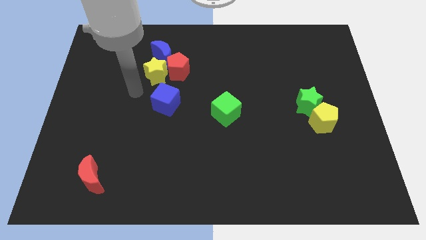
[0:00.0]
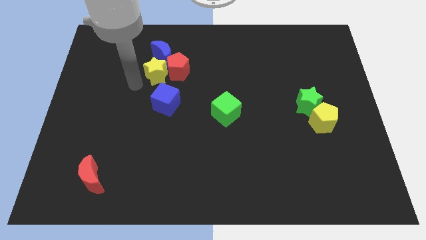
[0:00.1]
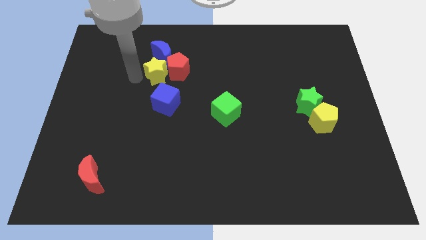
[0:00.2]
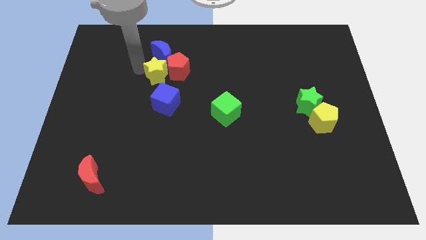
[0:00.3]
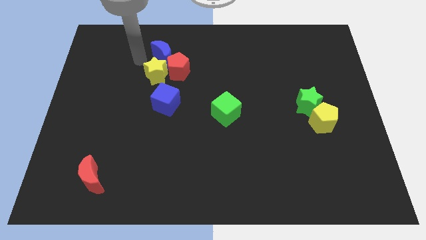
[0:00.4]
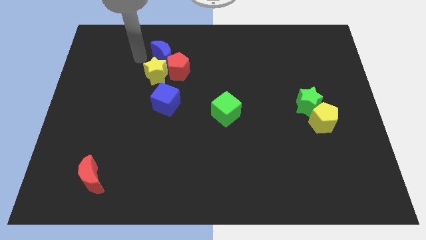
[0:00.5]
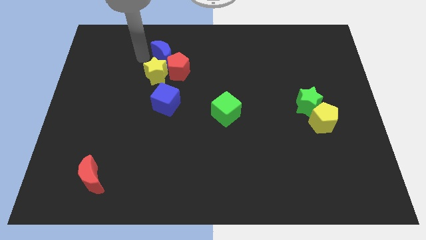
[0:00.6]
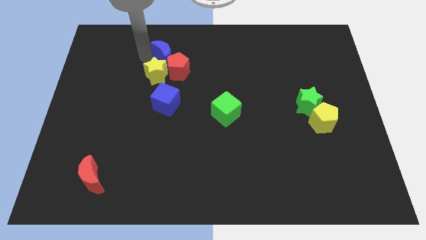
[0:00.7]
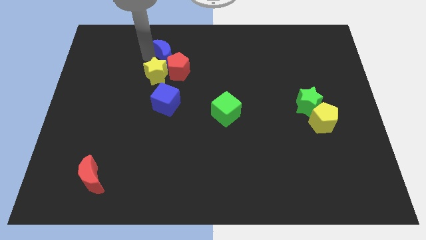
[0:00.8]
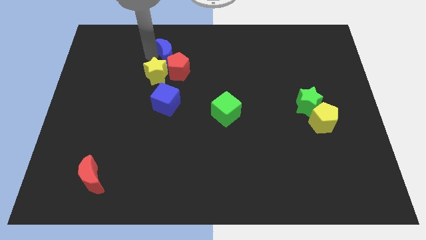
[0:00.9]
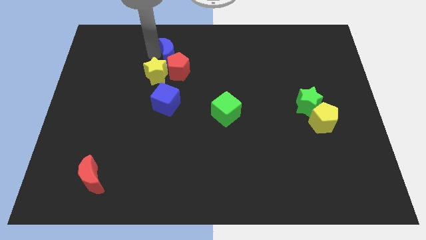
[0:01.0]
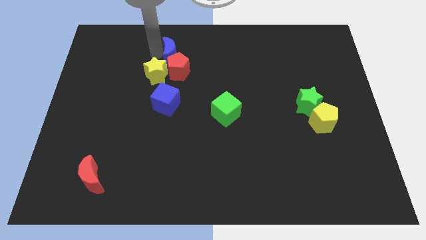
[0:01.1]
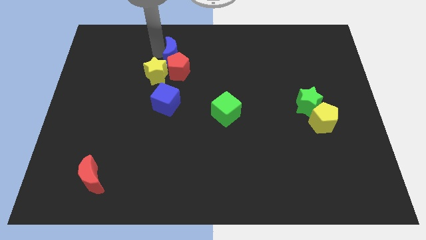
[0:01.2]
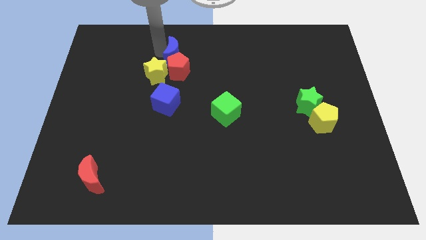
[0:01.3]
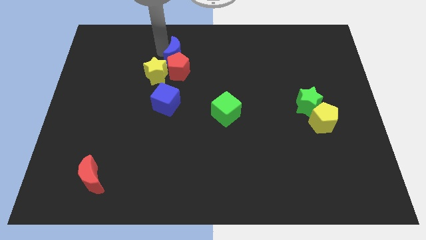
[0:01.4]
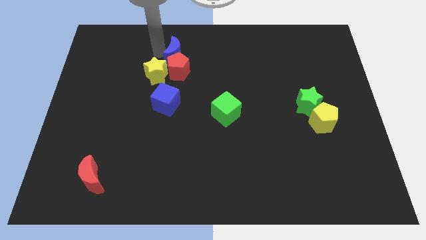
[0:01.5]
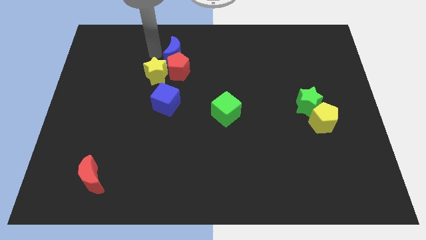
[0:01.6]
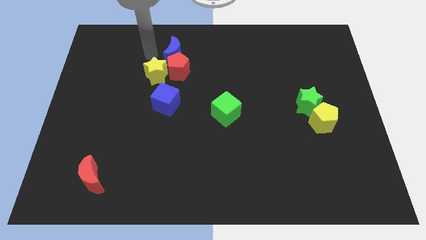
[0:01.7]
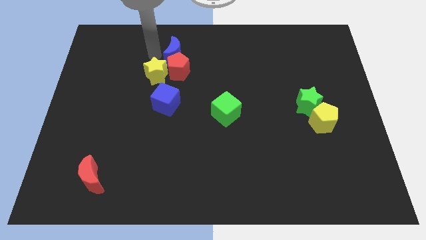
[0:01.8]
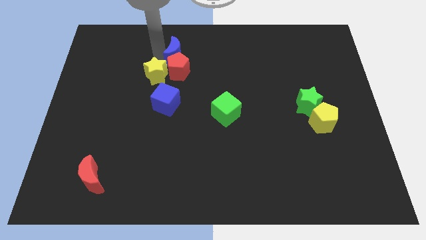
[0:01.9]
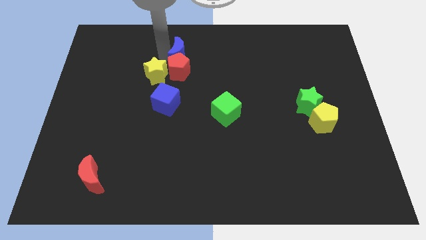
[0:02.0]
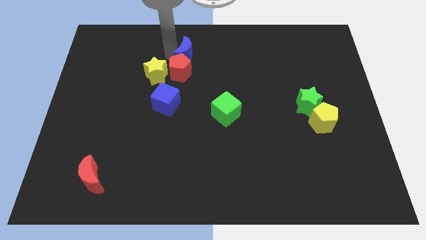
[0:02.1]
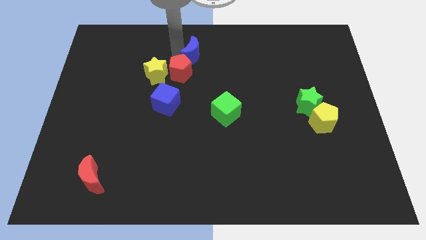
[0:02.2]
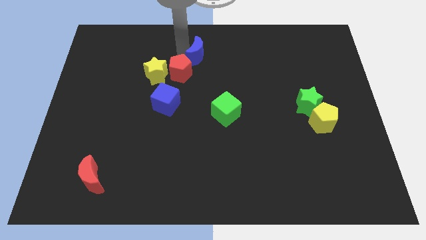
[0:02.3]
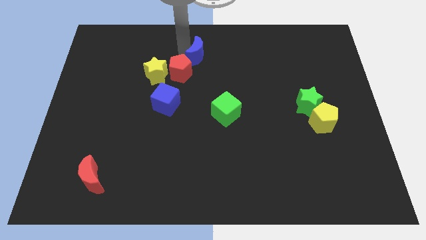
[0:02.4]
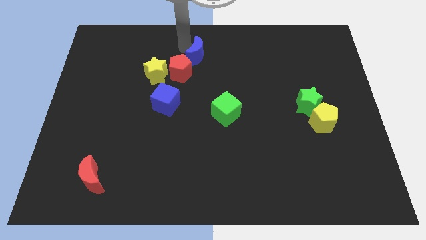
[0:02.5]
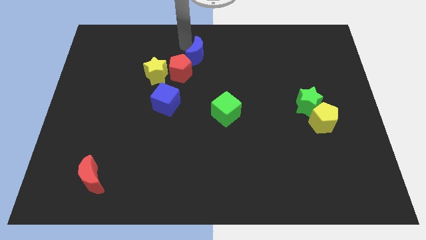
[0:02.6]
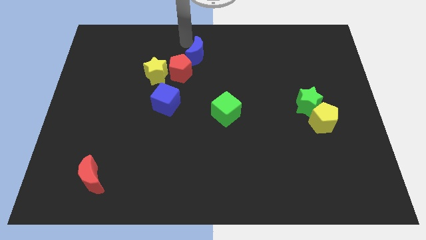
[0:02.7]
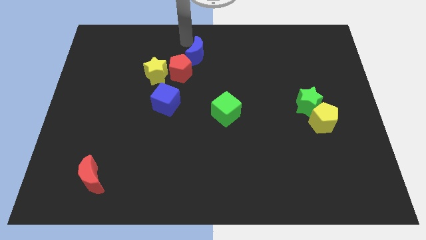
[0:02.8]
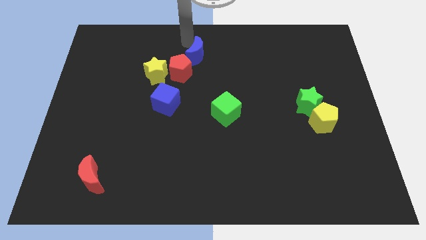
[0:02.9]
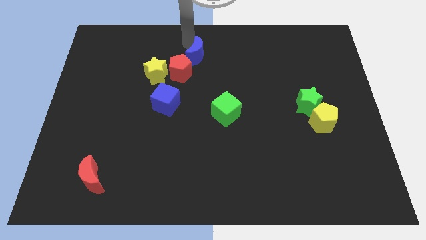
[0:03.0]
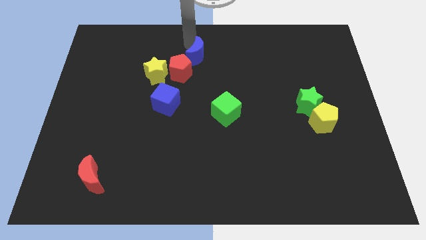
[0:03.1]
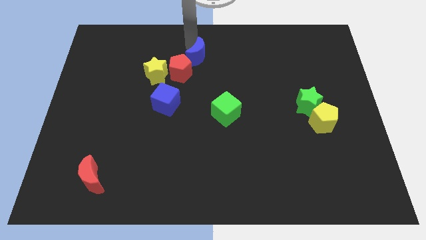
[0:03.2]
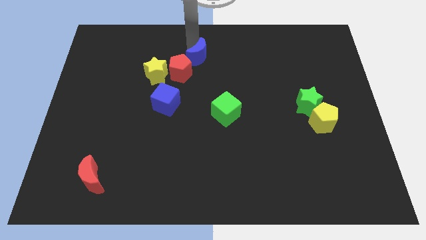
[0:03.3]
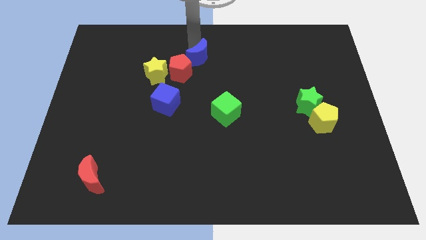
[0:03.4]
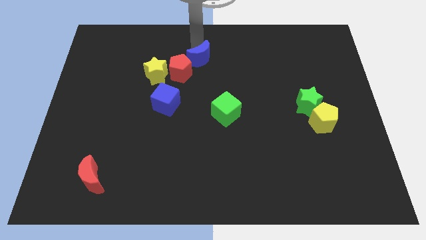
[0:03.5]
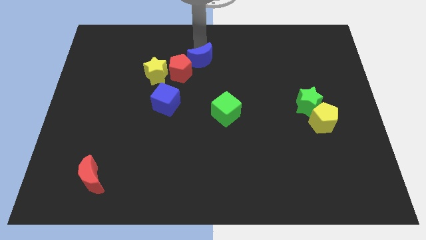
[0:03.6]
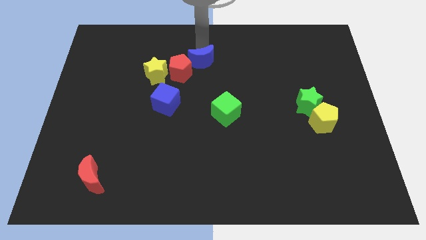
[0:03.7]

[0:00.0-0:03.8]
move the blue moon down and then to the right a little

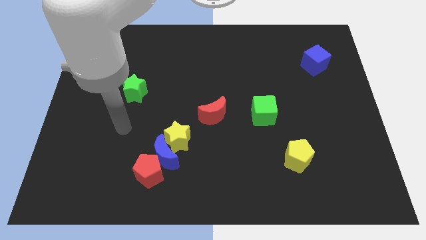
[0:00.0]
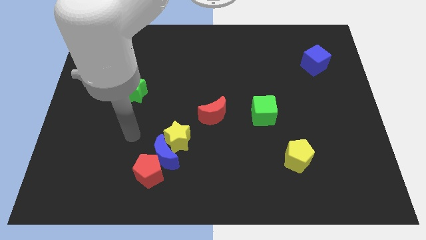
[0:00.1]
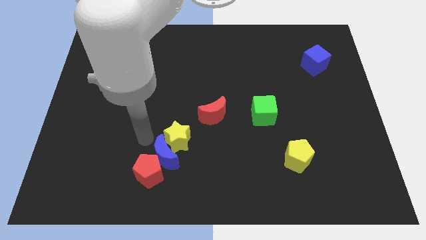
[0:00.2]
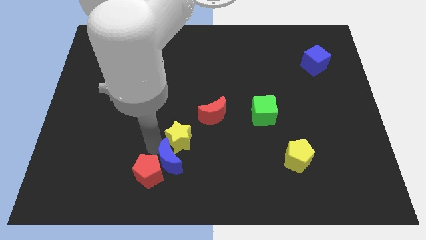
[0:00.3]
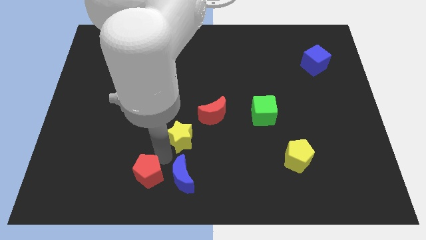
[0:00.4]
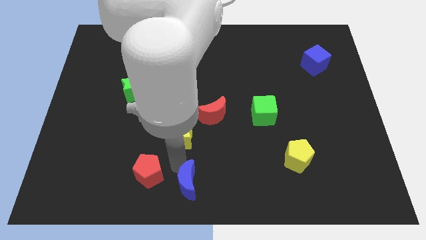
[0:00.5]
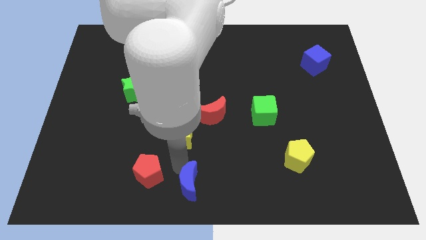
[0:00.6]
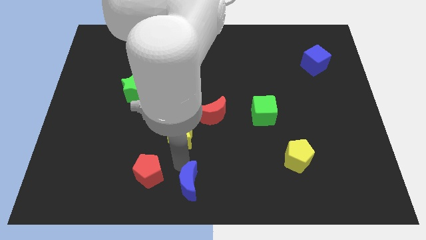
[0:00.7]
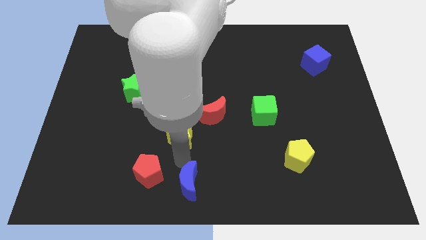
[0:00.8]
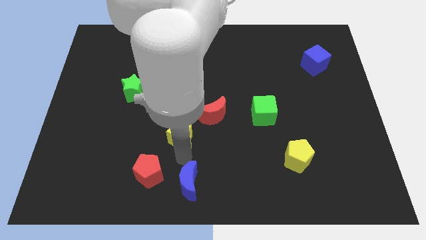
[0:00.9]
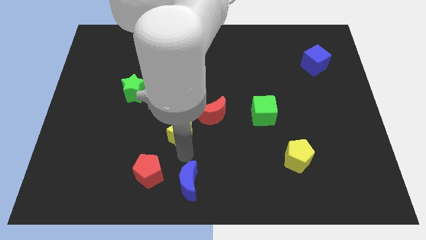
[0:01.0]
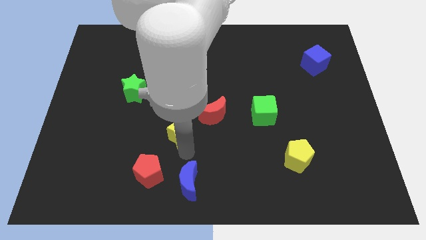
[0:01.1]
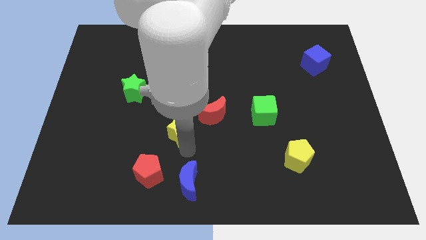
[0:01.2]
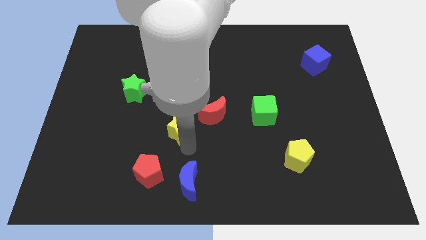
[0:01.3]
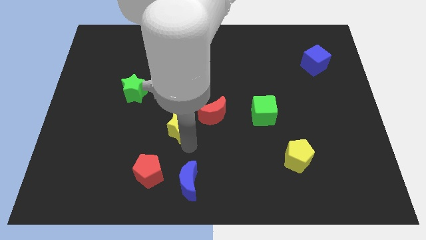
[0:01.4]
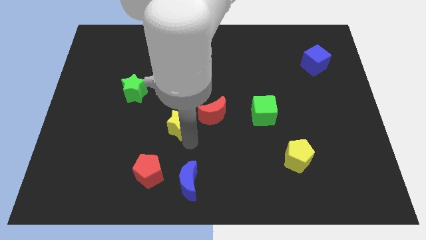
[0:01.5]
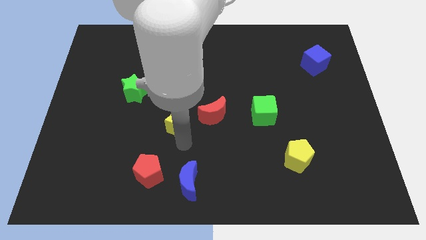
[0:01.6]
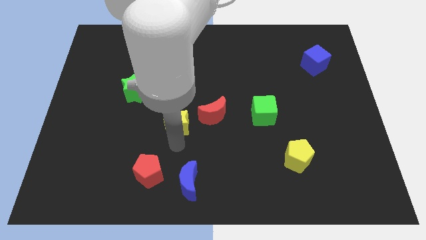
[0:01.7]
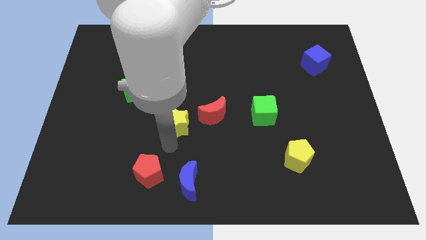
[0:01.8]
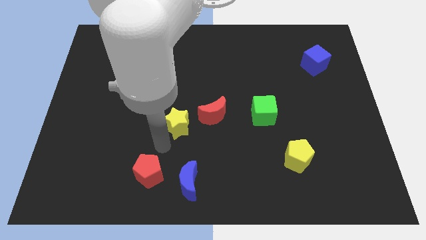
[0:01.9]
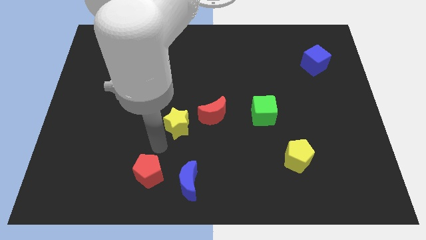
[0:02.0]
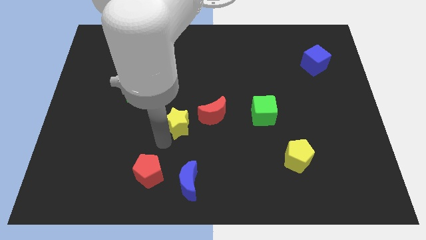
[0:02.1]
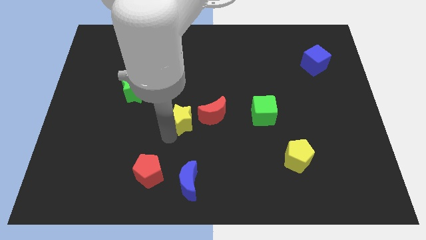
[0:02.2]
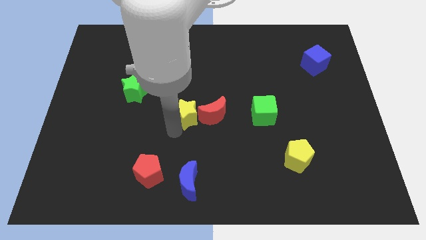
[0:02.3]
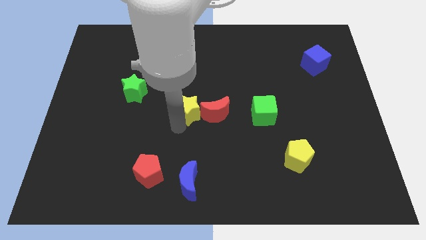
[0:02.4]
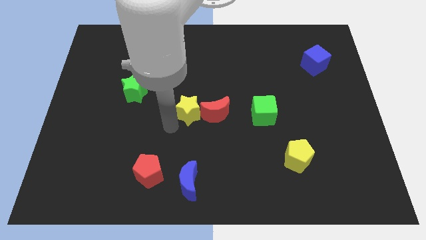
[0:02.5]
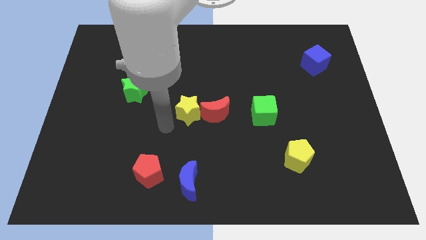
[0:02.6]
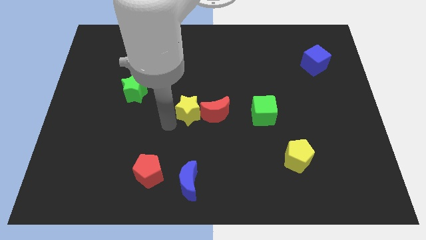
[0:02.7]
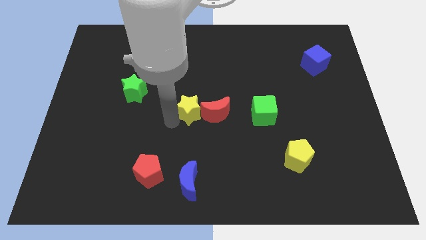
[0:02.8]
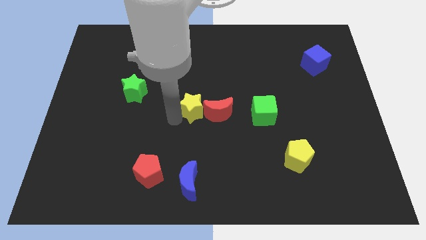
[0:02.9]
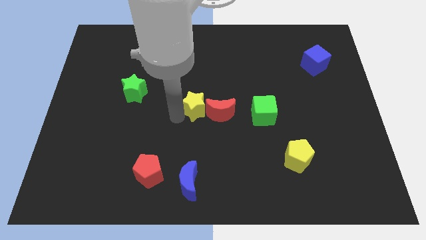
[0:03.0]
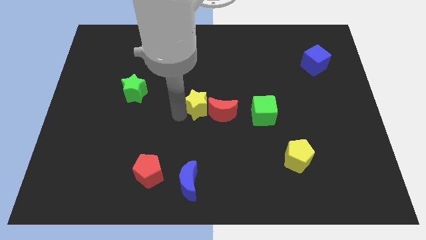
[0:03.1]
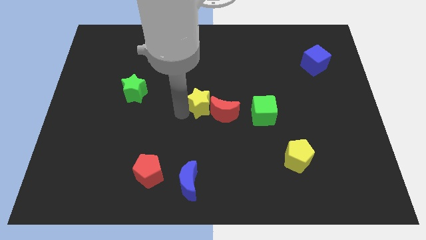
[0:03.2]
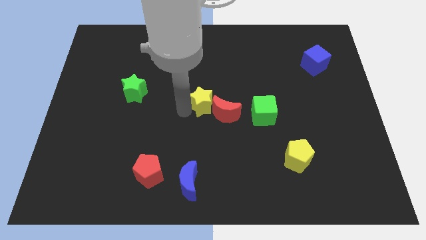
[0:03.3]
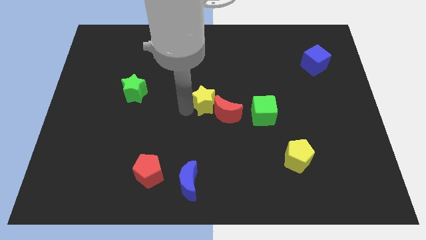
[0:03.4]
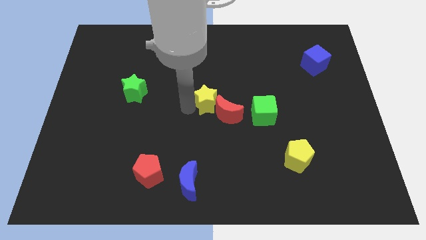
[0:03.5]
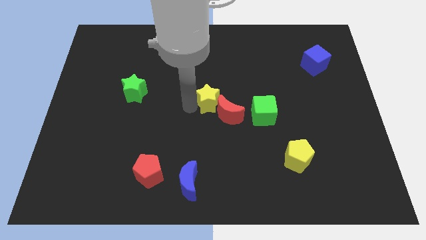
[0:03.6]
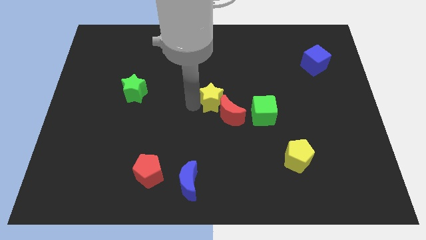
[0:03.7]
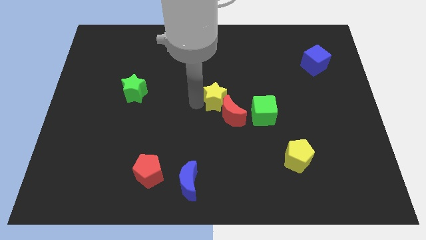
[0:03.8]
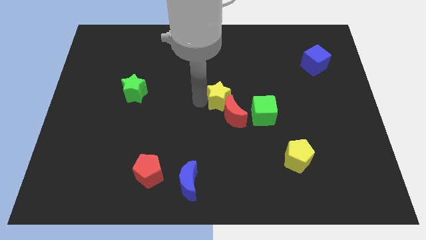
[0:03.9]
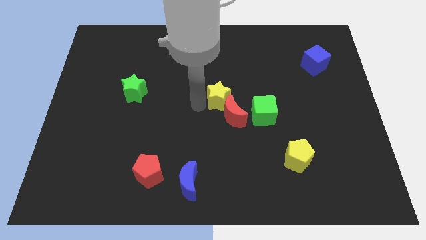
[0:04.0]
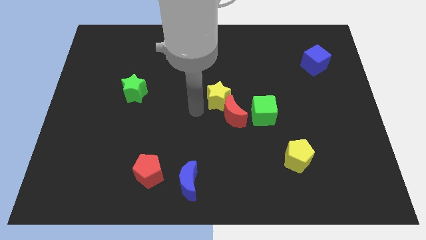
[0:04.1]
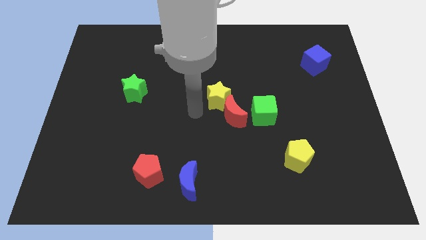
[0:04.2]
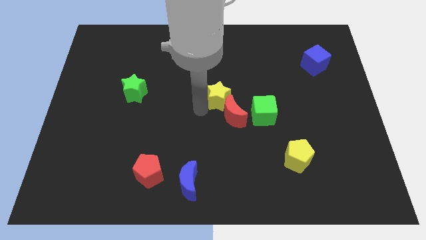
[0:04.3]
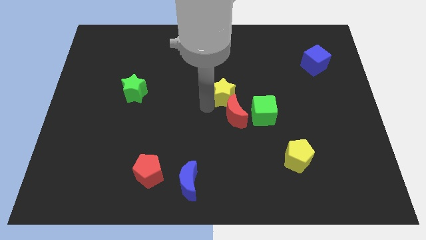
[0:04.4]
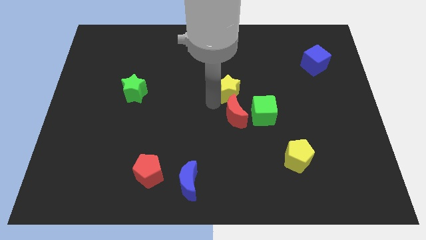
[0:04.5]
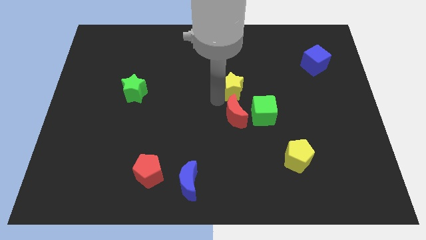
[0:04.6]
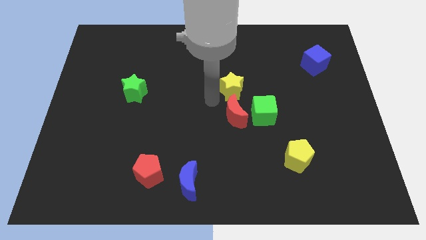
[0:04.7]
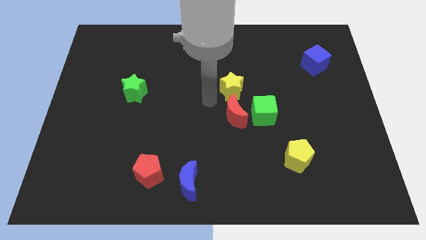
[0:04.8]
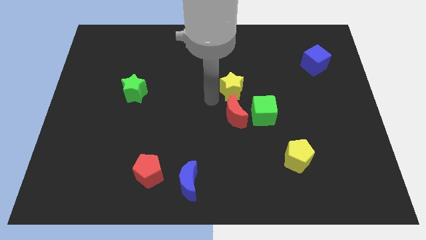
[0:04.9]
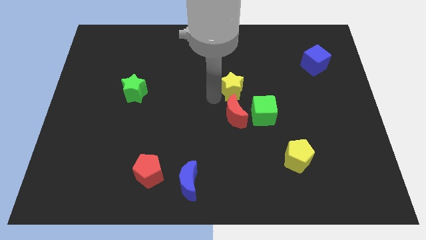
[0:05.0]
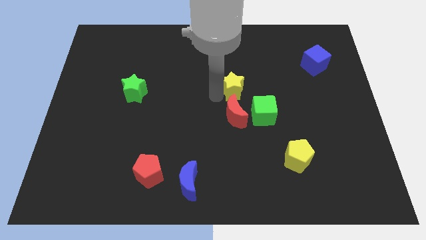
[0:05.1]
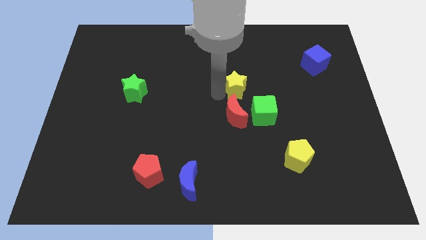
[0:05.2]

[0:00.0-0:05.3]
slide the yellow star up and then right
